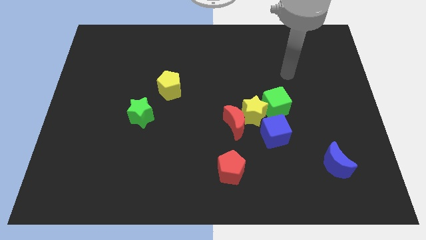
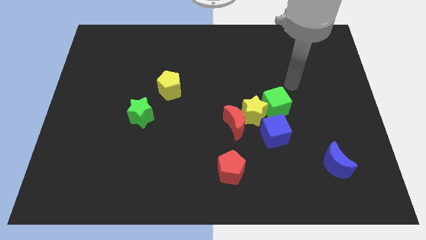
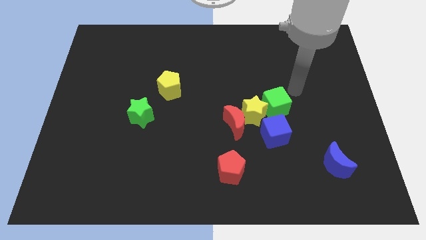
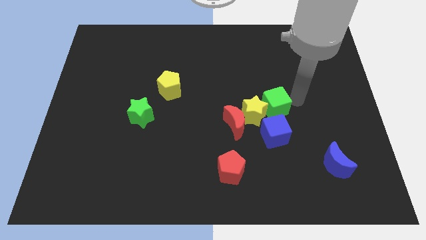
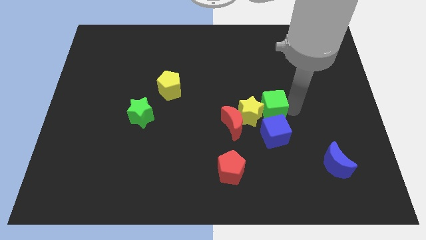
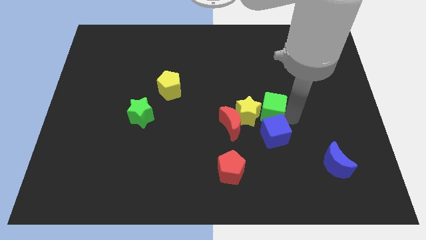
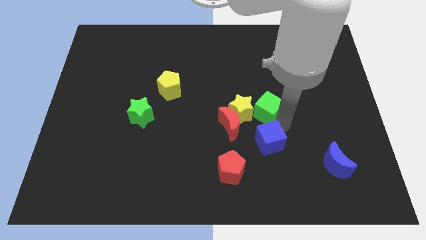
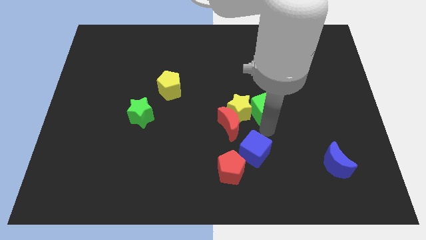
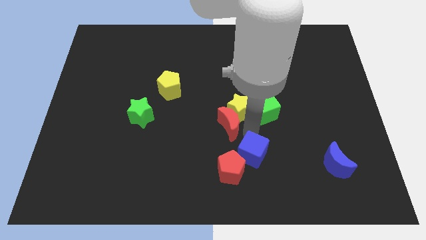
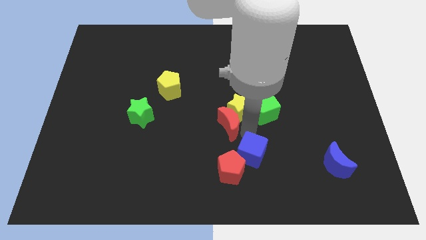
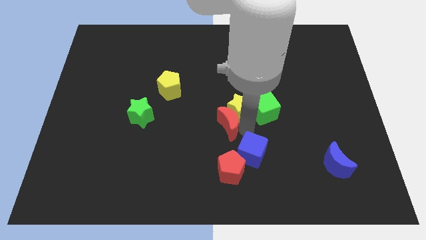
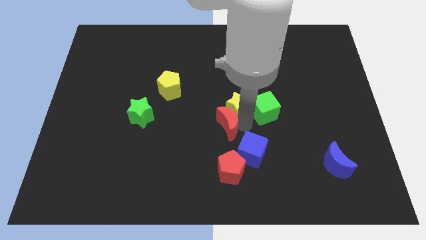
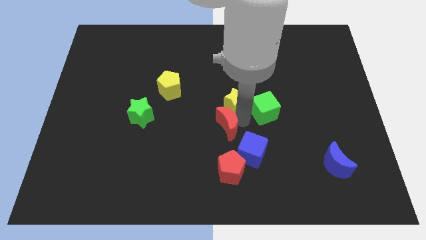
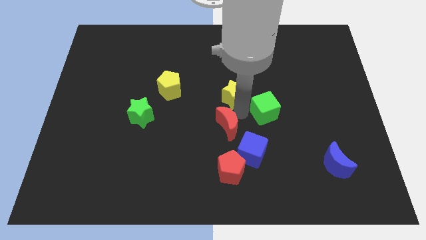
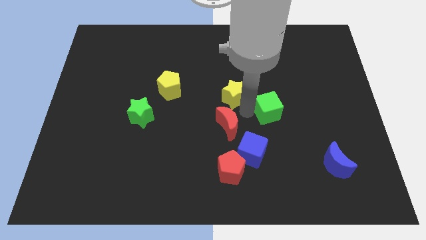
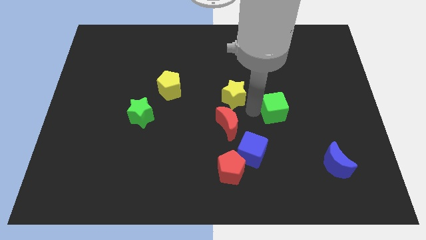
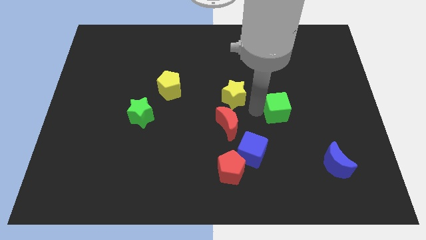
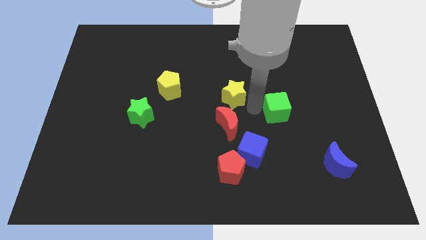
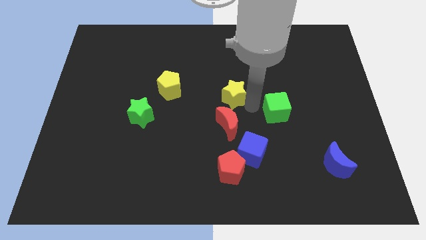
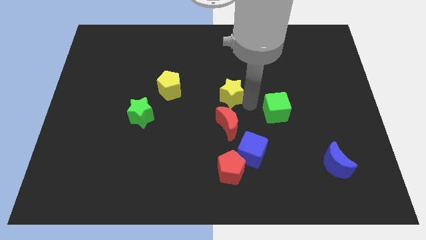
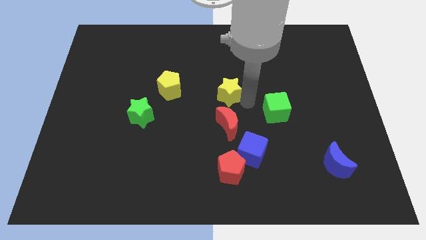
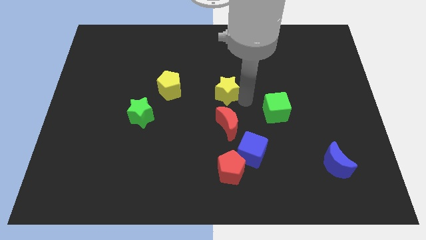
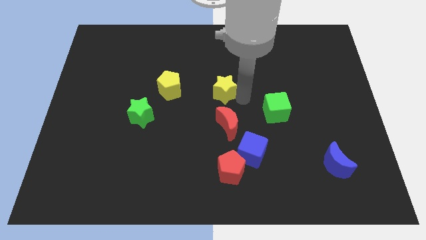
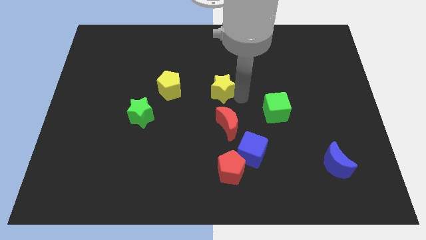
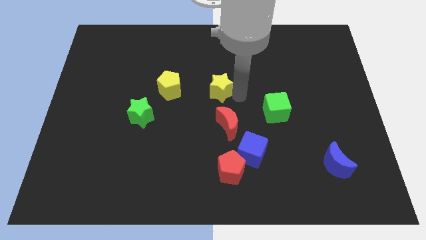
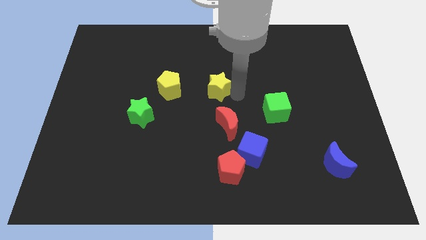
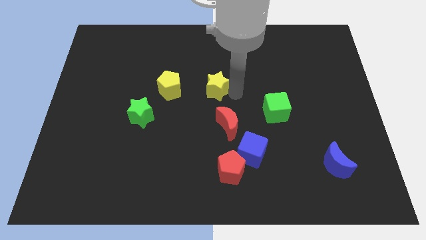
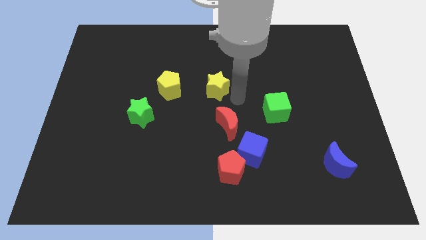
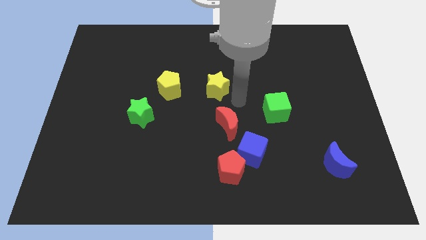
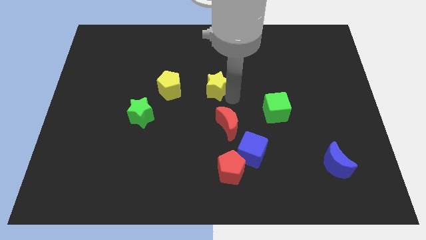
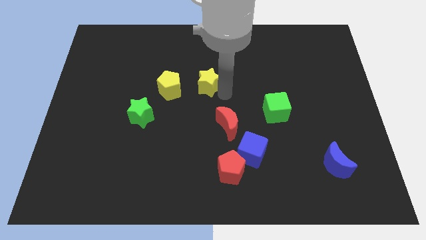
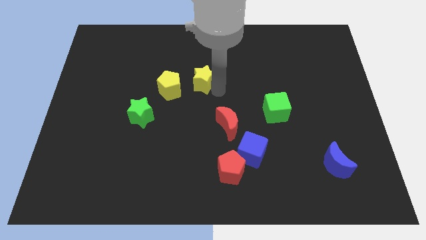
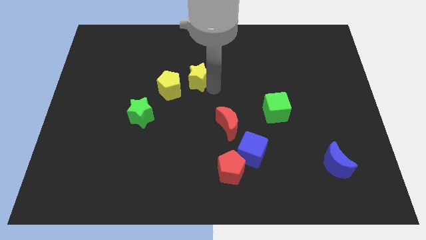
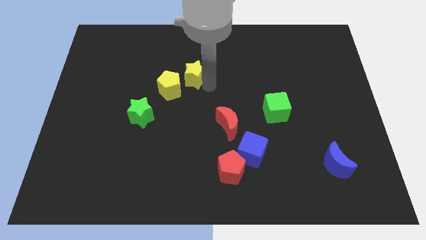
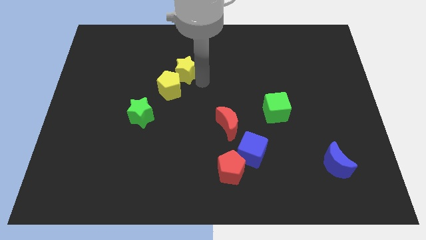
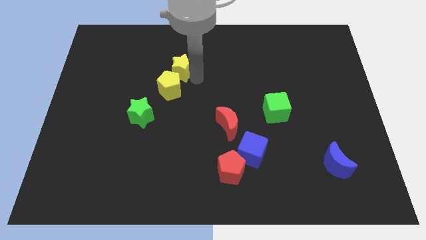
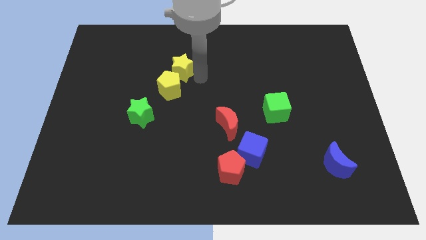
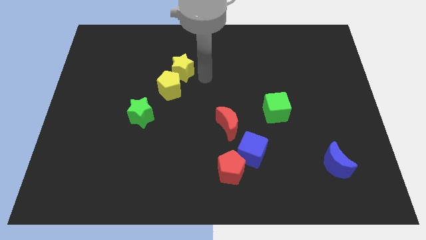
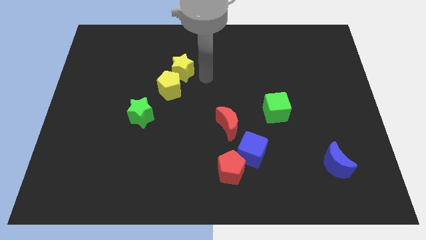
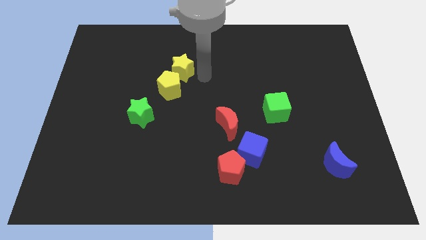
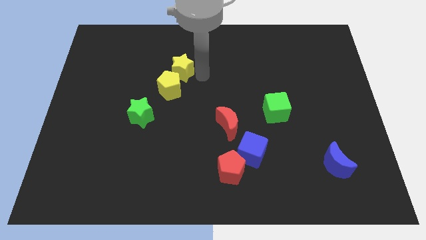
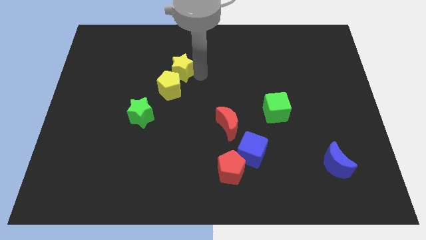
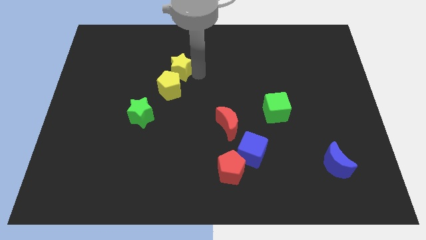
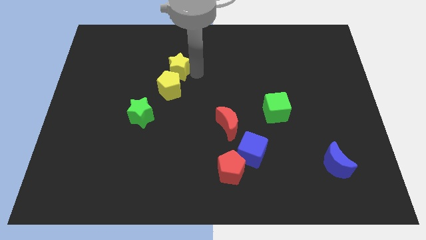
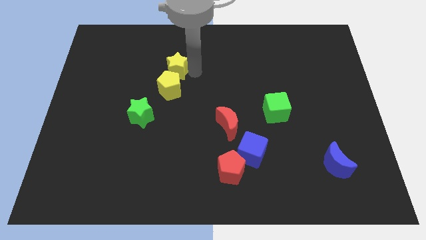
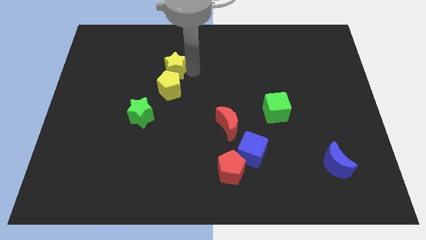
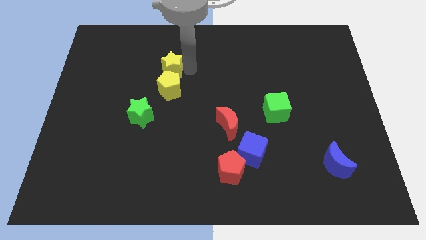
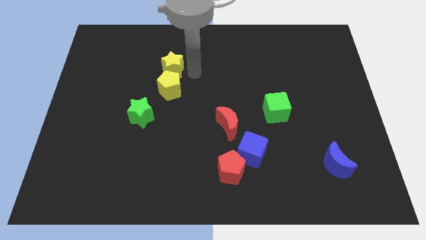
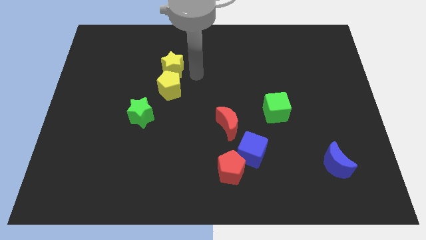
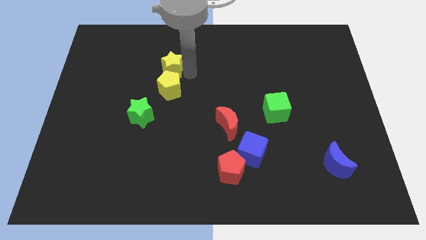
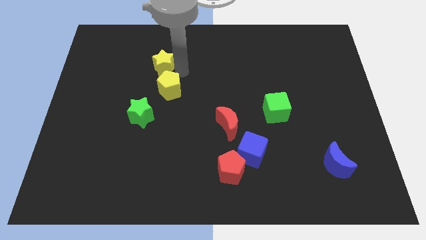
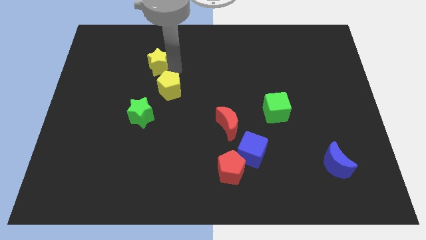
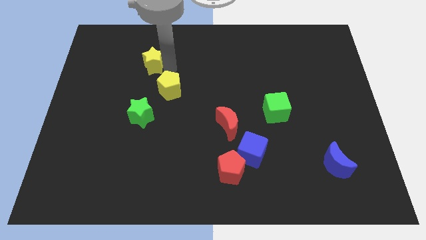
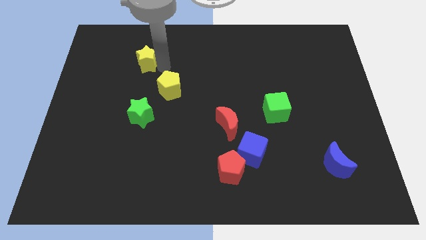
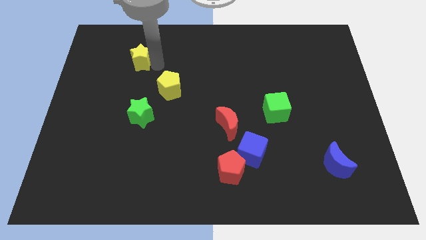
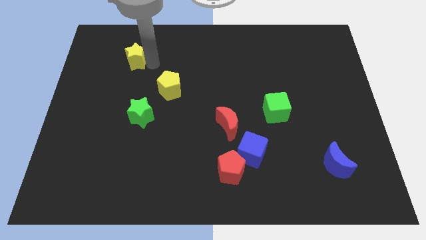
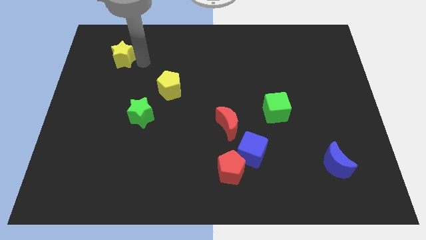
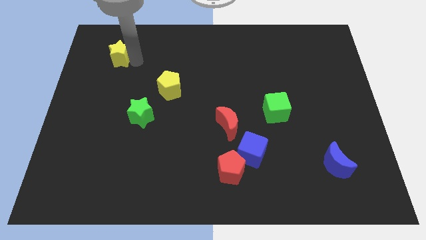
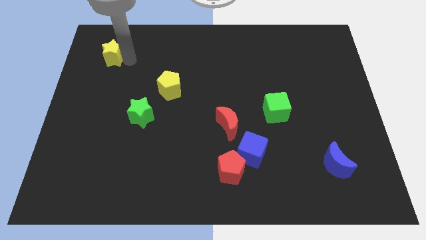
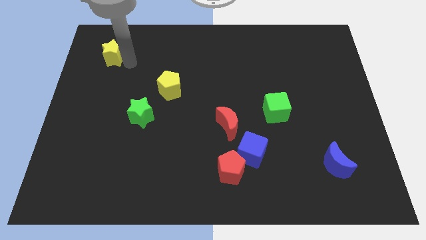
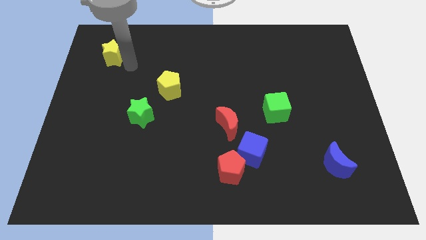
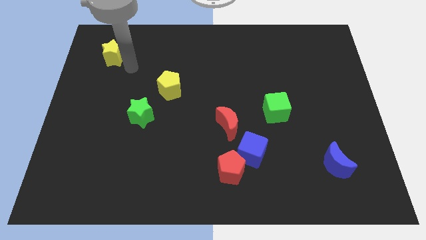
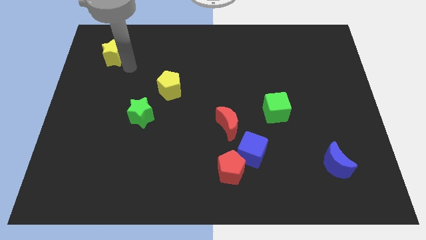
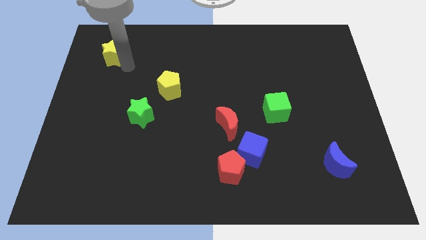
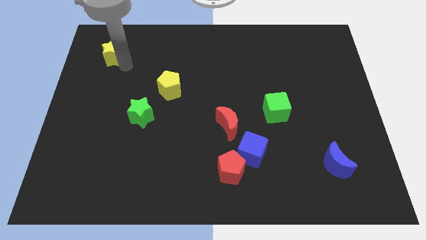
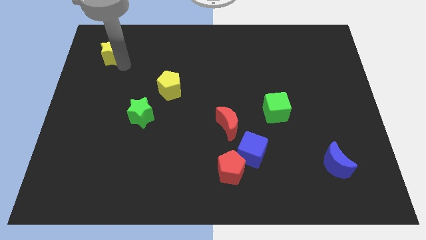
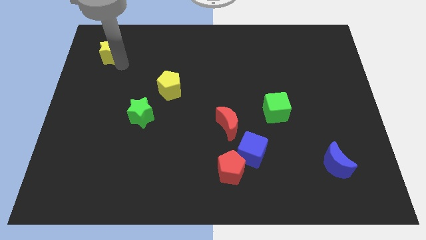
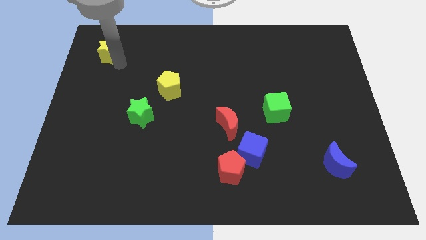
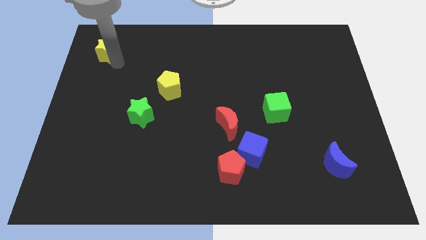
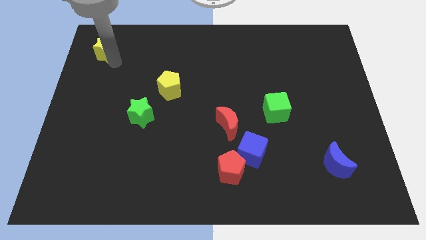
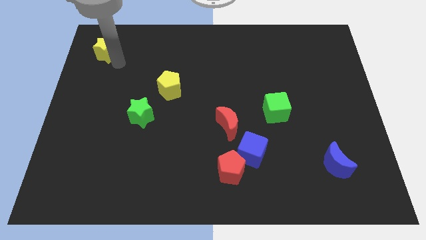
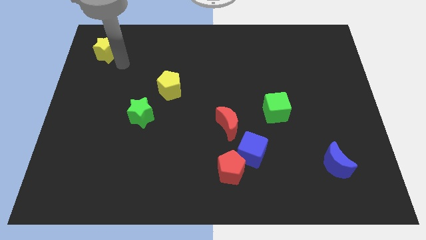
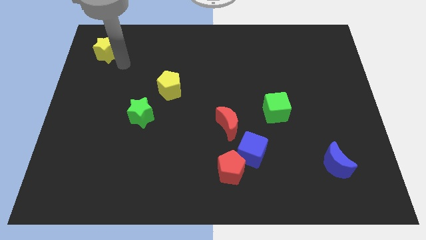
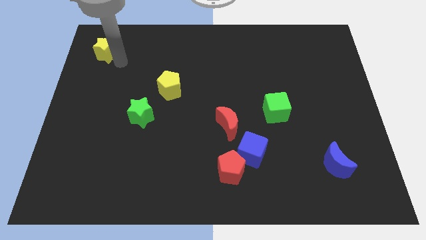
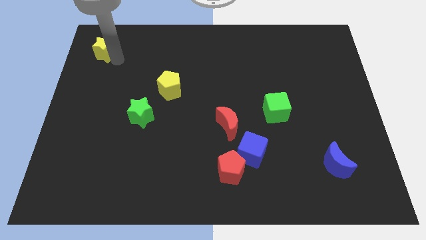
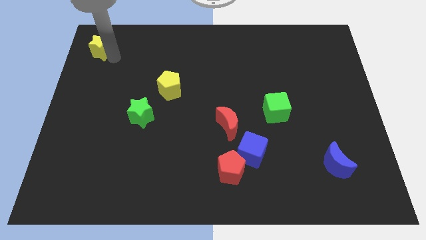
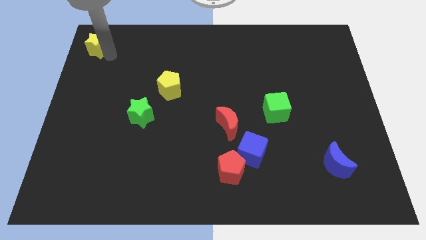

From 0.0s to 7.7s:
push the yellow star to the upper left corner
